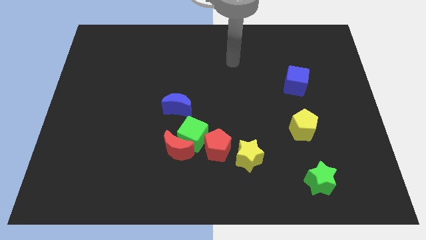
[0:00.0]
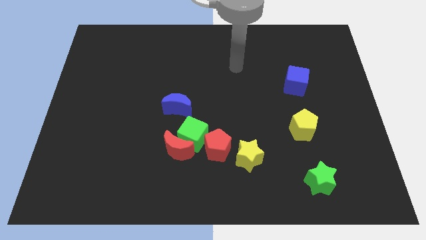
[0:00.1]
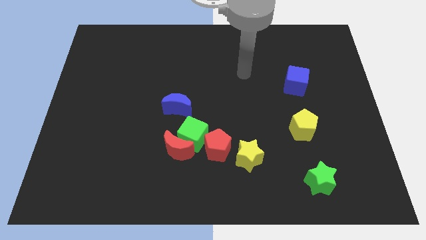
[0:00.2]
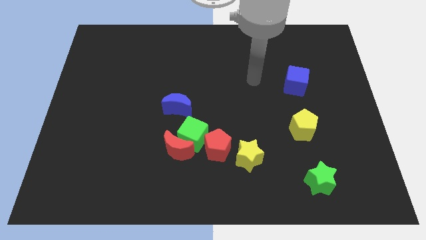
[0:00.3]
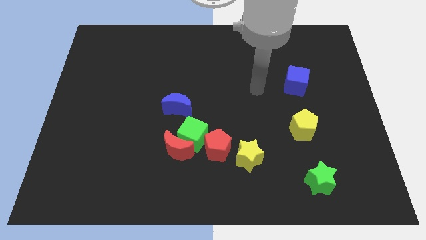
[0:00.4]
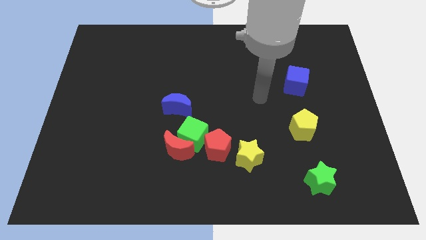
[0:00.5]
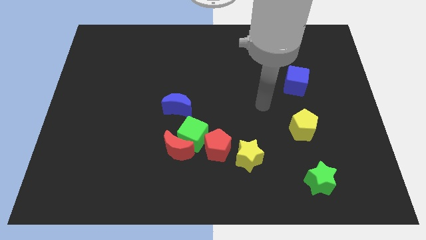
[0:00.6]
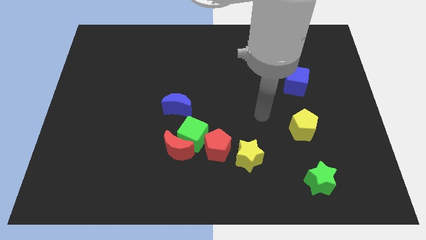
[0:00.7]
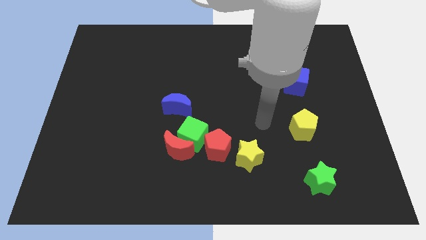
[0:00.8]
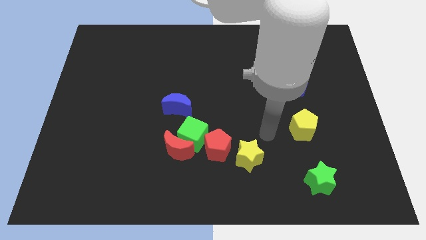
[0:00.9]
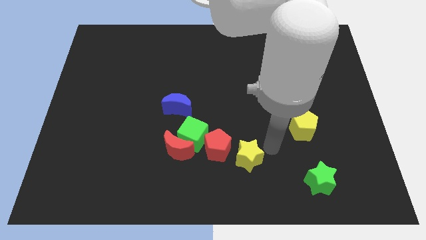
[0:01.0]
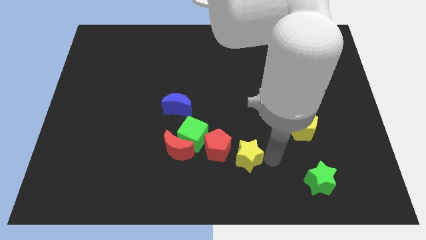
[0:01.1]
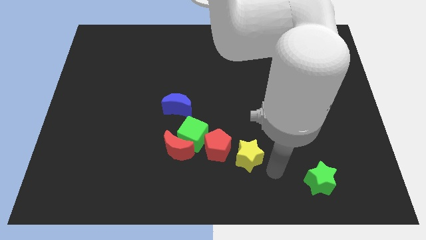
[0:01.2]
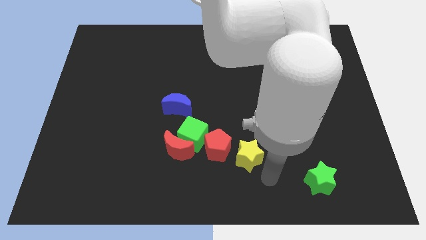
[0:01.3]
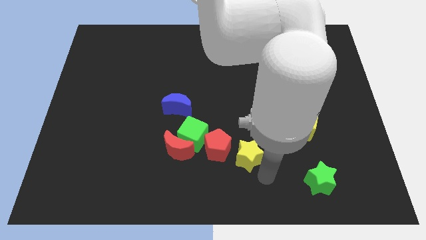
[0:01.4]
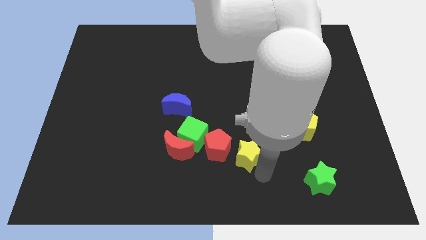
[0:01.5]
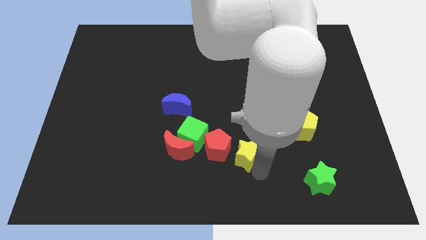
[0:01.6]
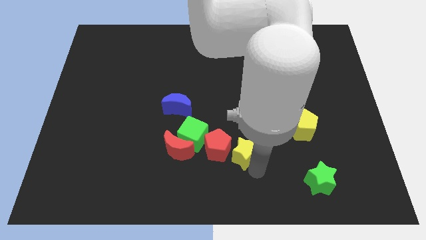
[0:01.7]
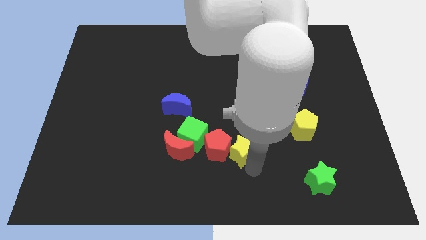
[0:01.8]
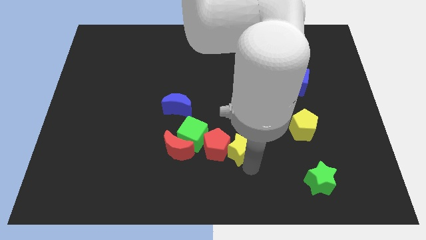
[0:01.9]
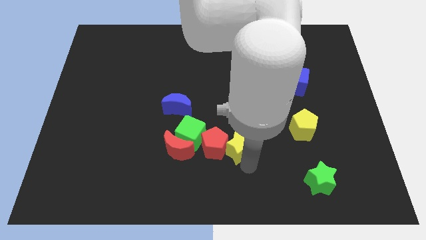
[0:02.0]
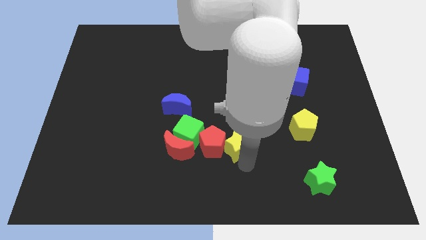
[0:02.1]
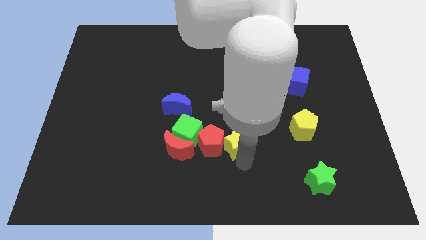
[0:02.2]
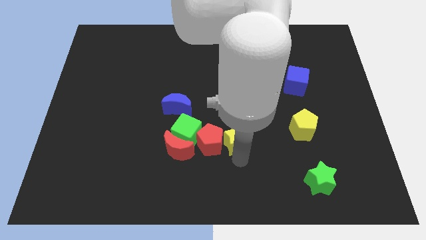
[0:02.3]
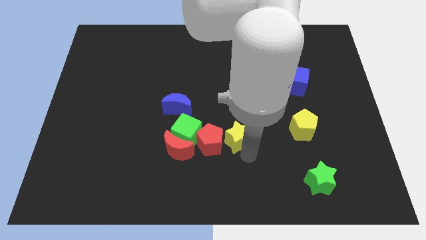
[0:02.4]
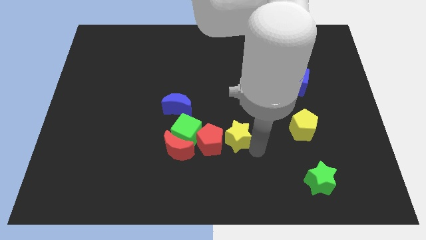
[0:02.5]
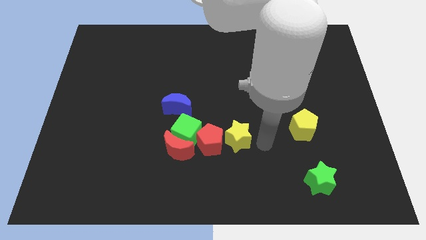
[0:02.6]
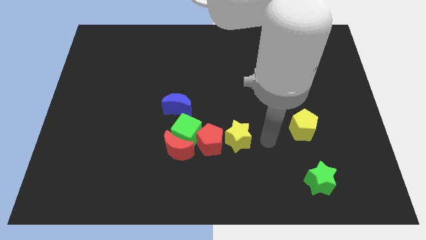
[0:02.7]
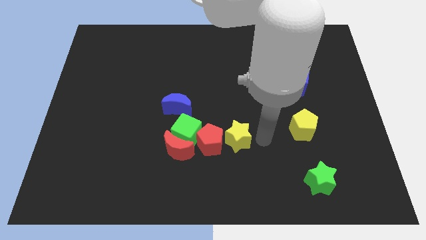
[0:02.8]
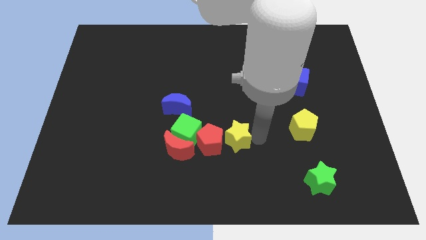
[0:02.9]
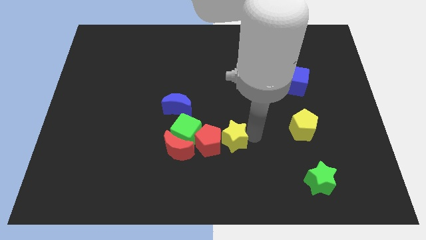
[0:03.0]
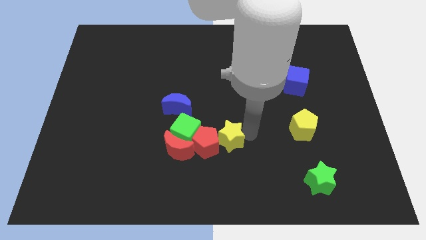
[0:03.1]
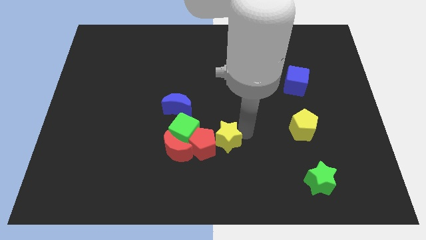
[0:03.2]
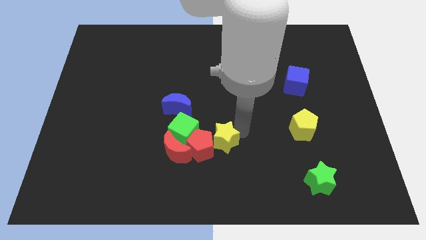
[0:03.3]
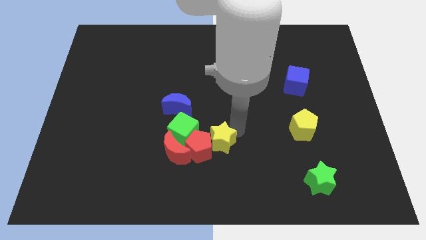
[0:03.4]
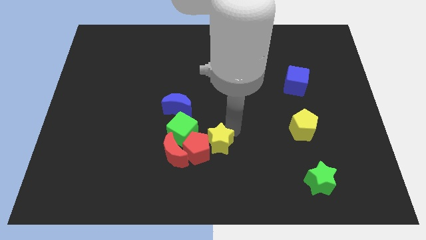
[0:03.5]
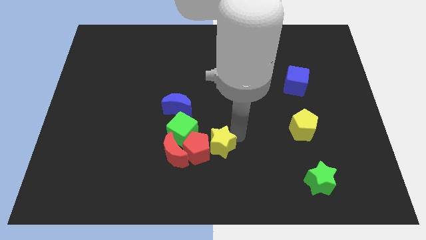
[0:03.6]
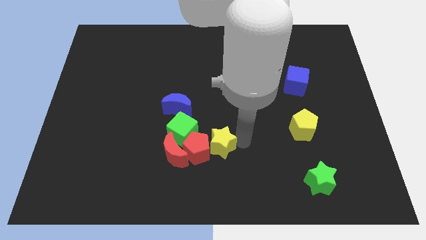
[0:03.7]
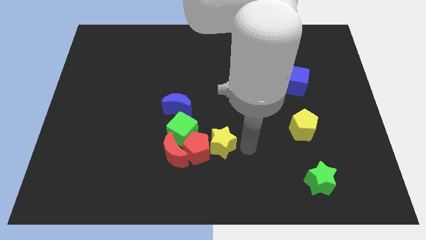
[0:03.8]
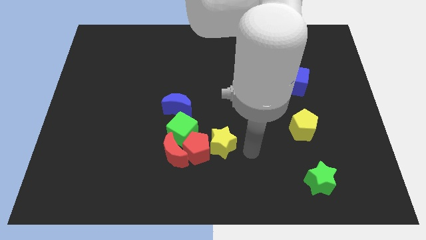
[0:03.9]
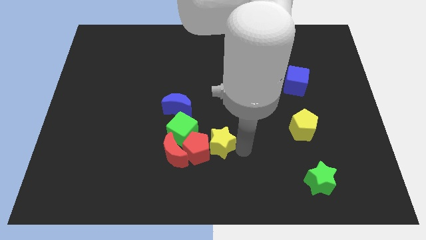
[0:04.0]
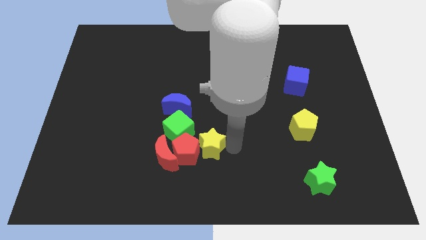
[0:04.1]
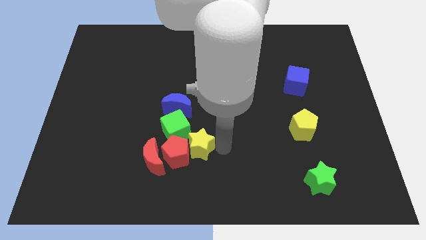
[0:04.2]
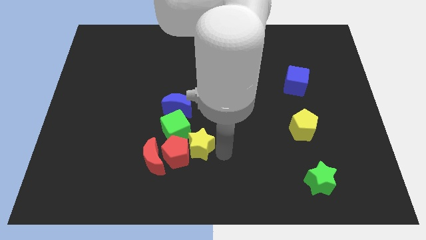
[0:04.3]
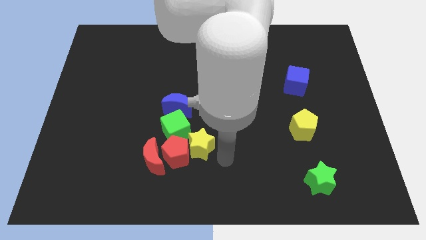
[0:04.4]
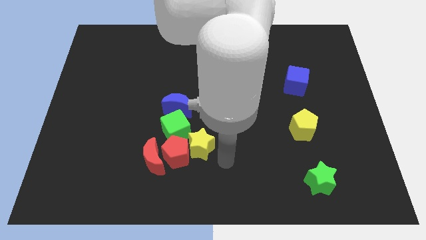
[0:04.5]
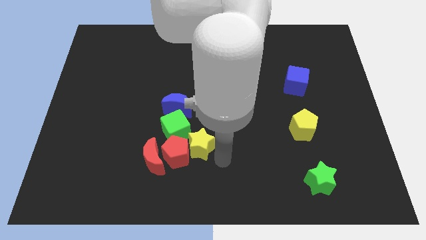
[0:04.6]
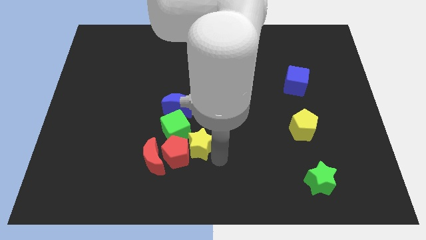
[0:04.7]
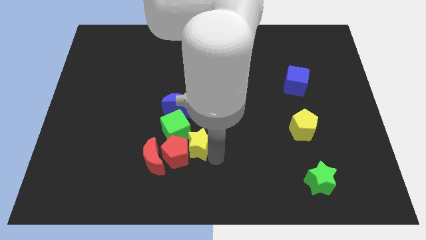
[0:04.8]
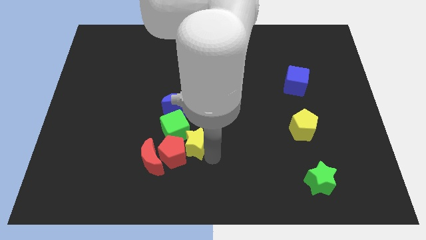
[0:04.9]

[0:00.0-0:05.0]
slide the yellow star to the green cube

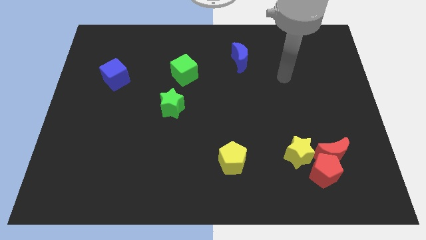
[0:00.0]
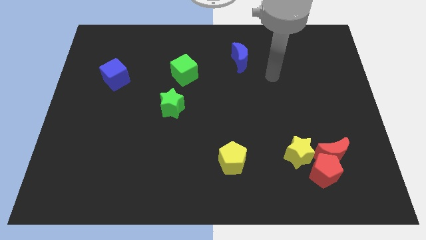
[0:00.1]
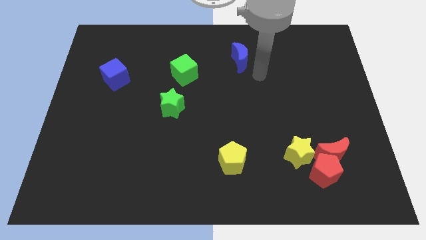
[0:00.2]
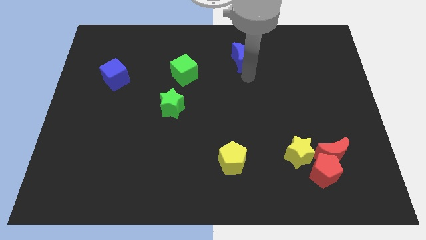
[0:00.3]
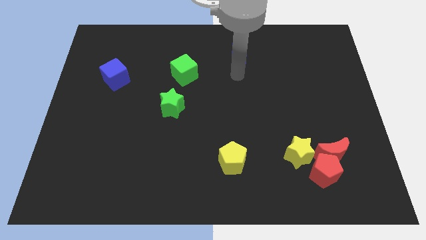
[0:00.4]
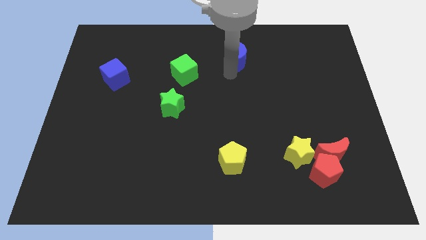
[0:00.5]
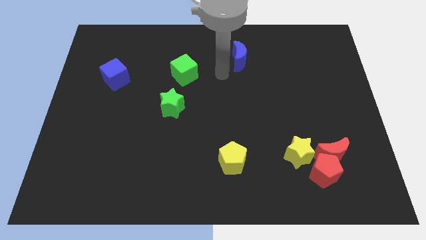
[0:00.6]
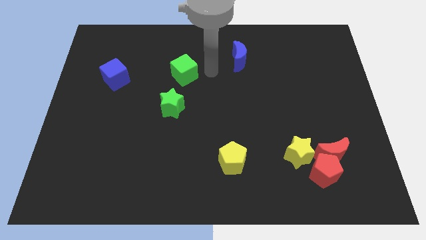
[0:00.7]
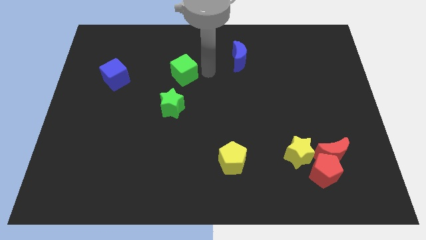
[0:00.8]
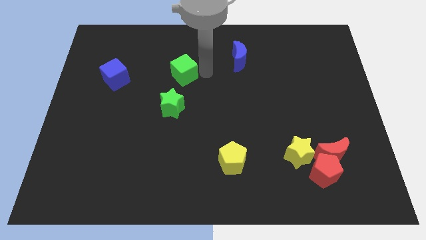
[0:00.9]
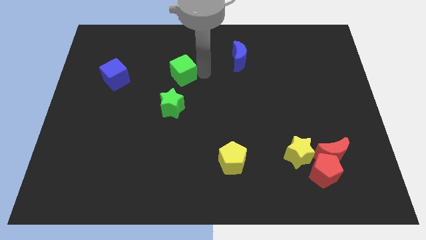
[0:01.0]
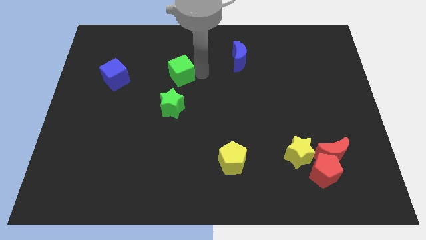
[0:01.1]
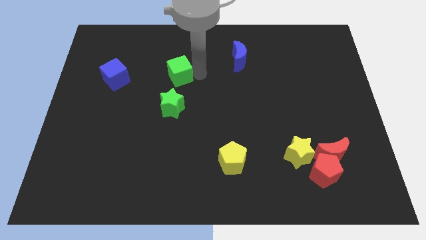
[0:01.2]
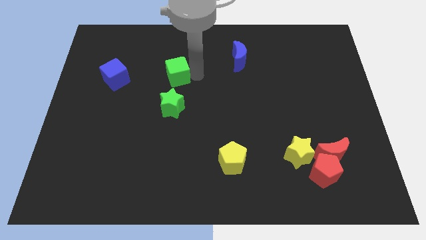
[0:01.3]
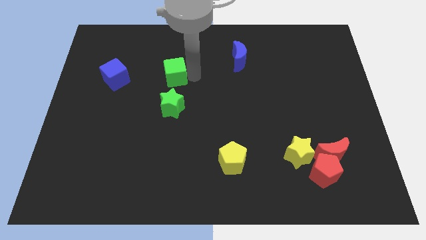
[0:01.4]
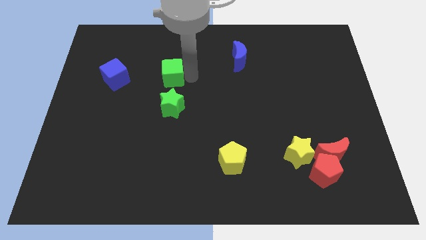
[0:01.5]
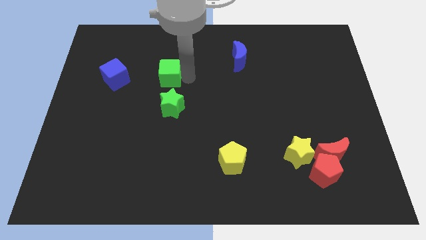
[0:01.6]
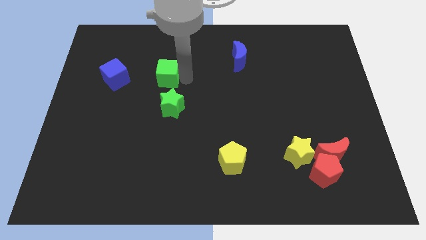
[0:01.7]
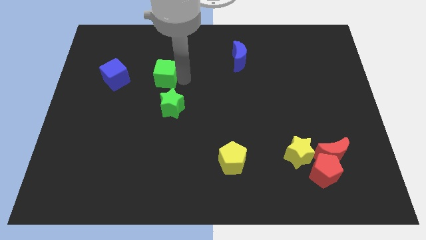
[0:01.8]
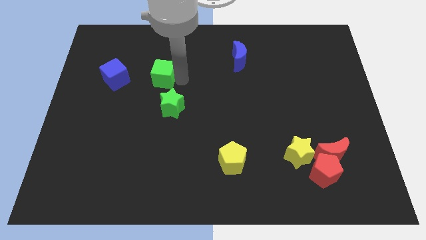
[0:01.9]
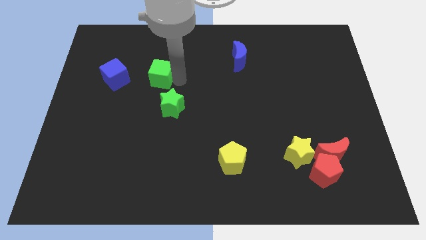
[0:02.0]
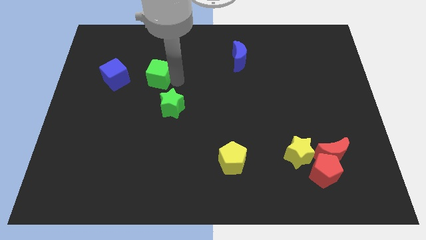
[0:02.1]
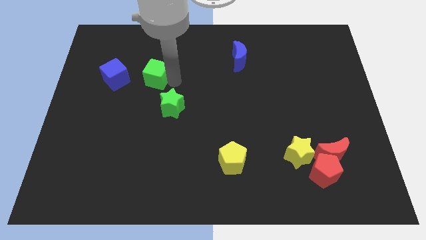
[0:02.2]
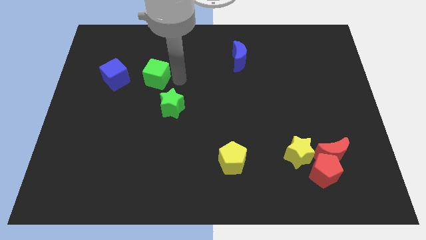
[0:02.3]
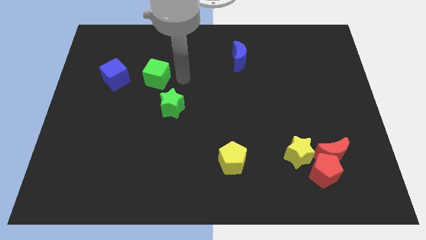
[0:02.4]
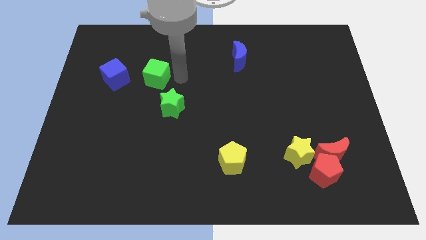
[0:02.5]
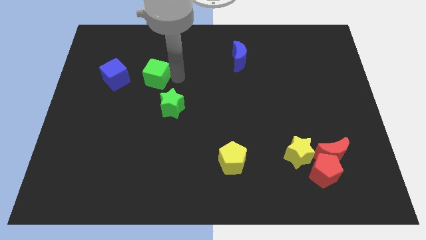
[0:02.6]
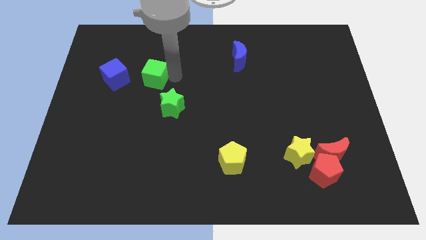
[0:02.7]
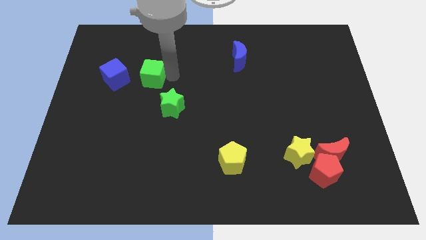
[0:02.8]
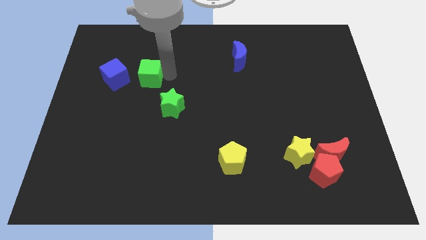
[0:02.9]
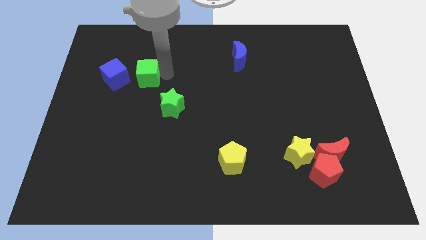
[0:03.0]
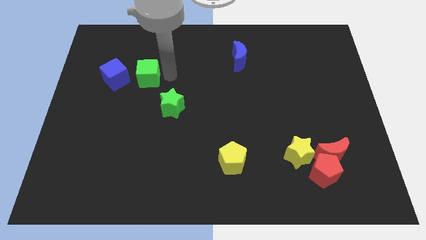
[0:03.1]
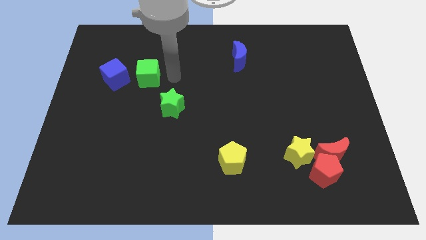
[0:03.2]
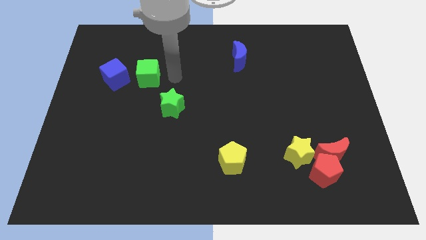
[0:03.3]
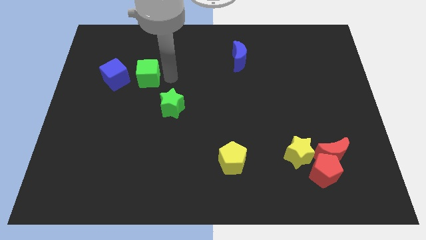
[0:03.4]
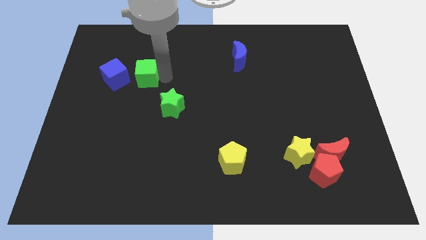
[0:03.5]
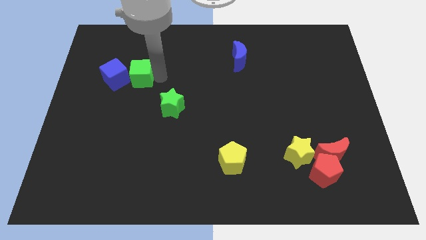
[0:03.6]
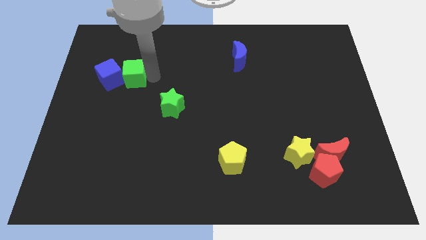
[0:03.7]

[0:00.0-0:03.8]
put the green cube next to the blue cube
